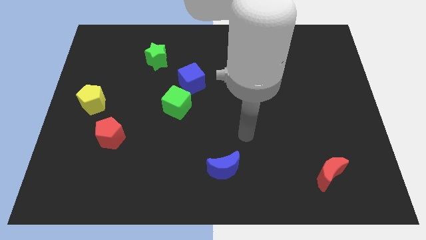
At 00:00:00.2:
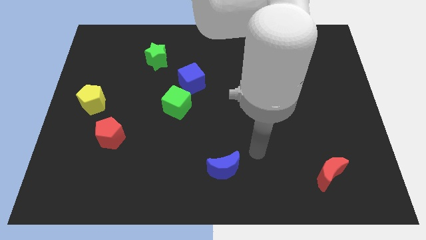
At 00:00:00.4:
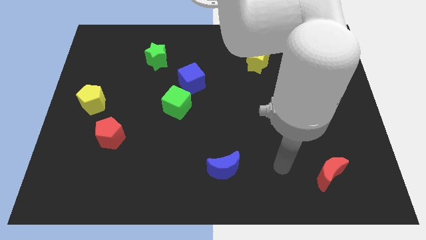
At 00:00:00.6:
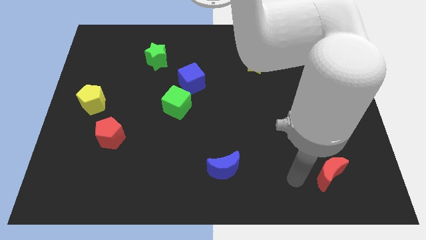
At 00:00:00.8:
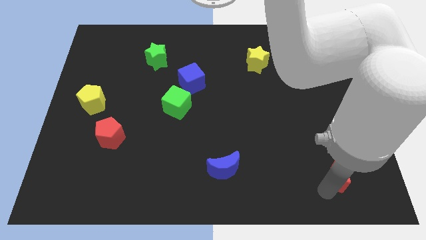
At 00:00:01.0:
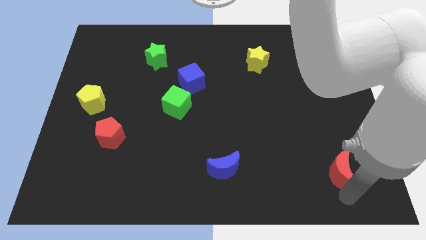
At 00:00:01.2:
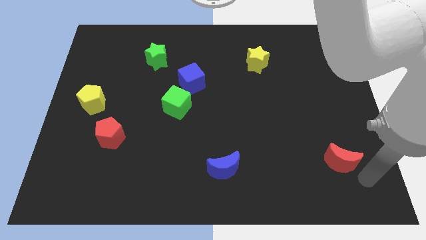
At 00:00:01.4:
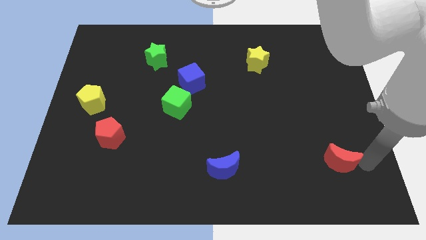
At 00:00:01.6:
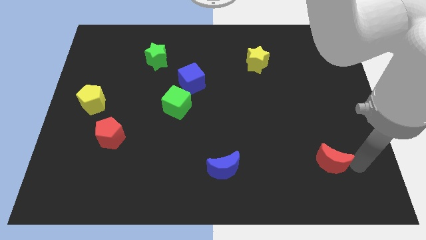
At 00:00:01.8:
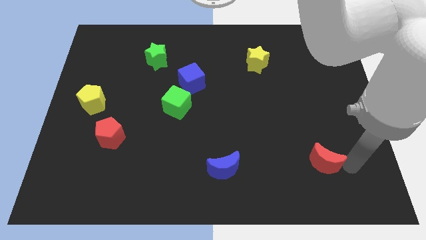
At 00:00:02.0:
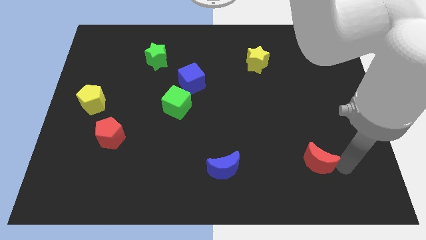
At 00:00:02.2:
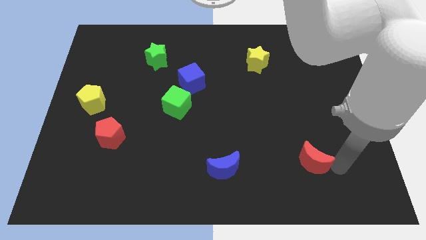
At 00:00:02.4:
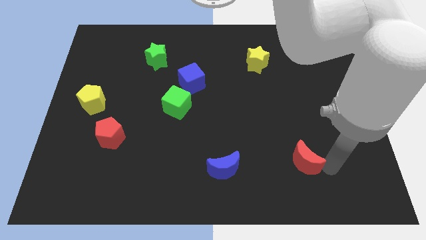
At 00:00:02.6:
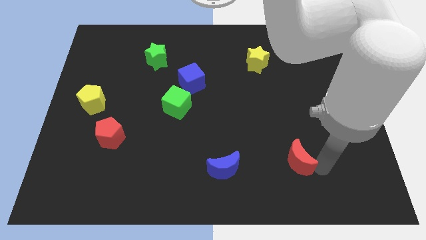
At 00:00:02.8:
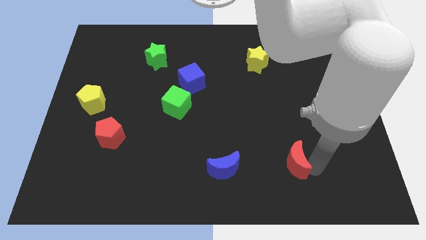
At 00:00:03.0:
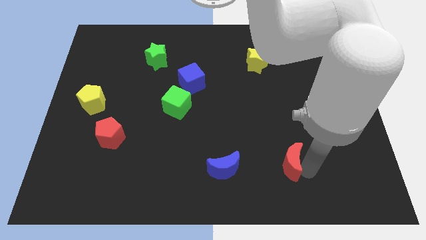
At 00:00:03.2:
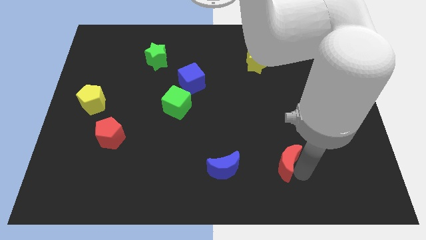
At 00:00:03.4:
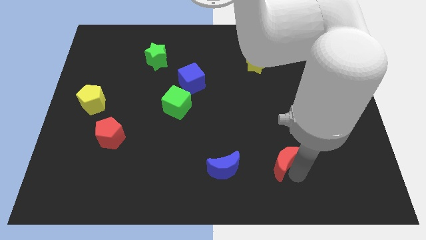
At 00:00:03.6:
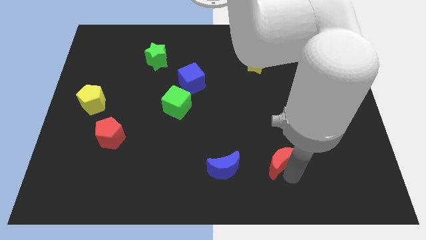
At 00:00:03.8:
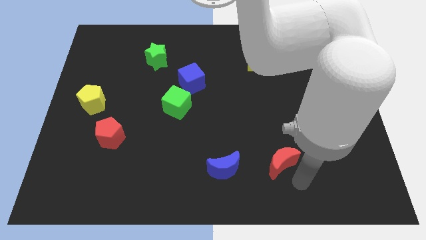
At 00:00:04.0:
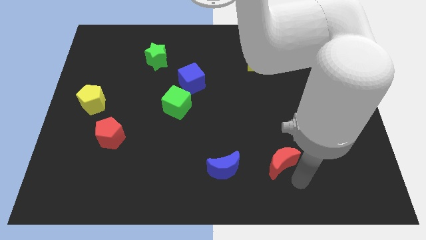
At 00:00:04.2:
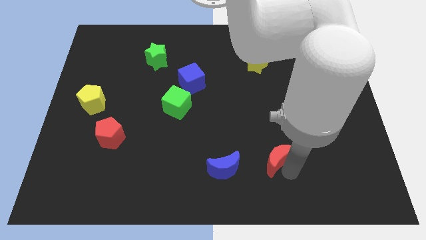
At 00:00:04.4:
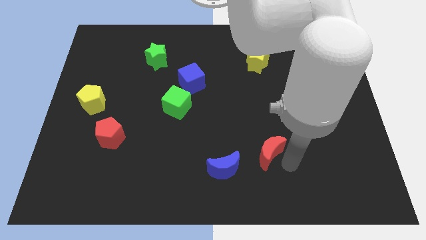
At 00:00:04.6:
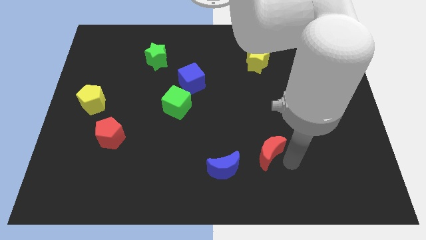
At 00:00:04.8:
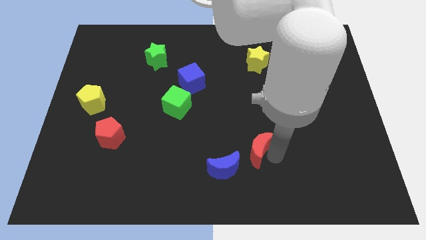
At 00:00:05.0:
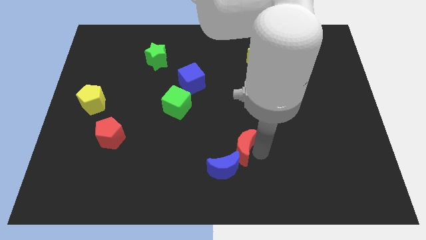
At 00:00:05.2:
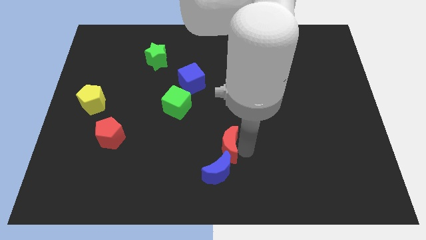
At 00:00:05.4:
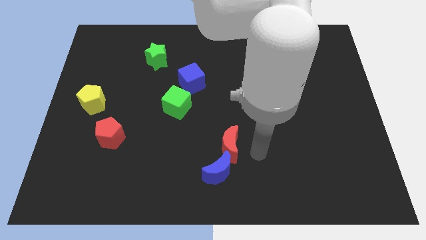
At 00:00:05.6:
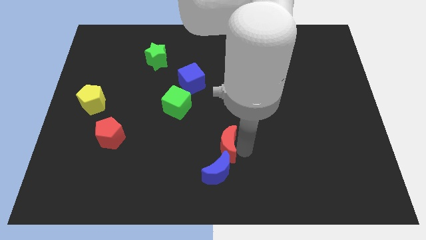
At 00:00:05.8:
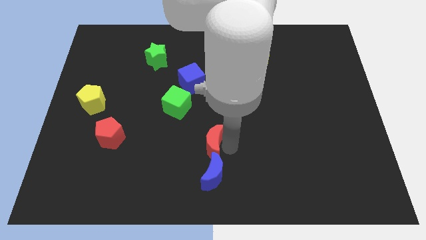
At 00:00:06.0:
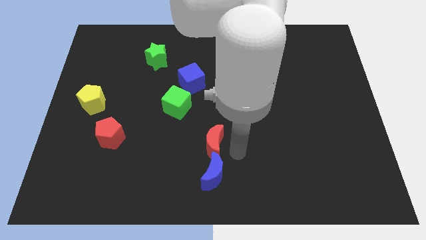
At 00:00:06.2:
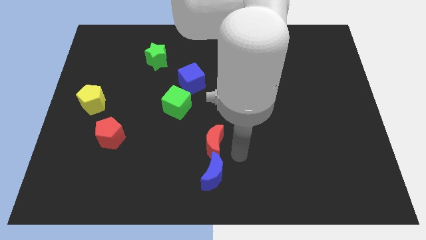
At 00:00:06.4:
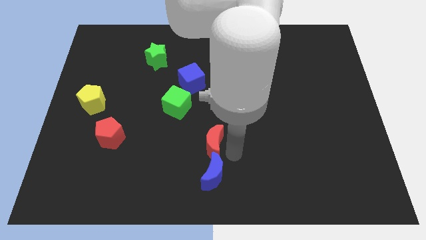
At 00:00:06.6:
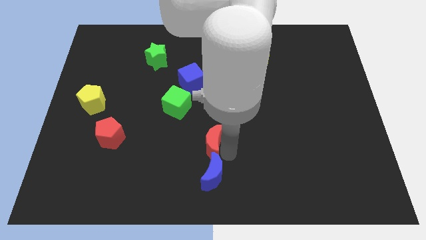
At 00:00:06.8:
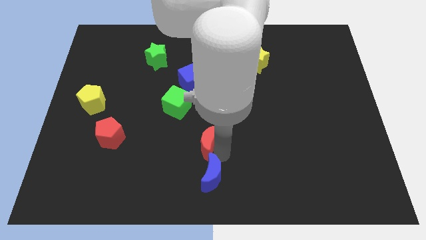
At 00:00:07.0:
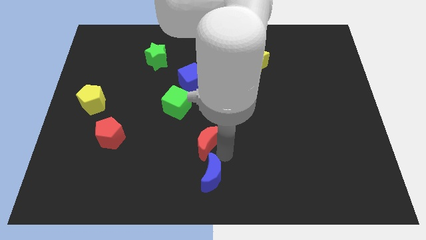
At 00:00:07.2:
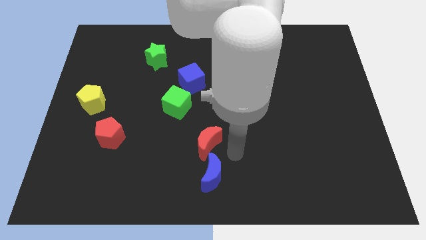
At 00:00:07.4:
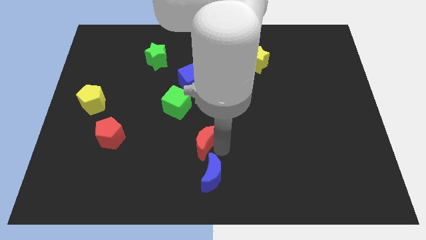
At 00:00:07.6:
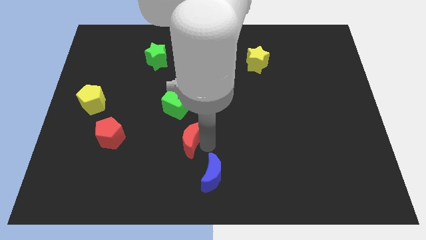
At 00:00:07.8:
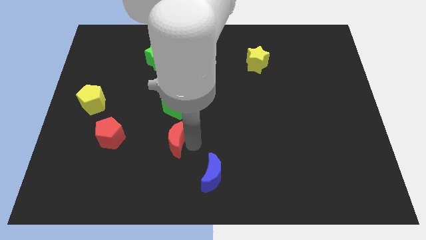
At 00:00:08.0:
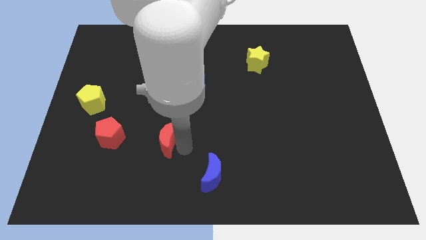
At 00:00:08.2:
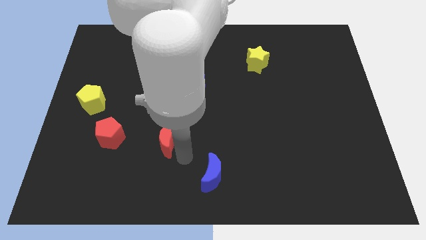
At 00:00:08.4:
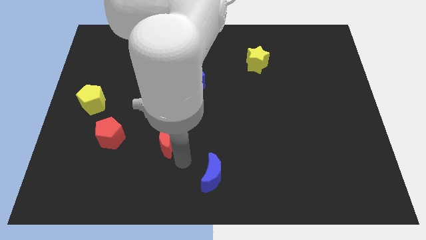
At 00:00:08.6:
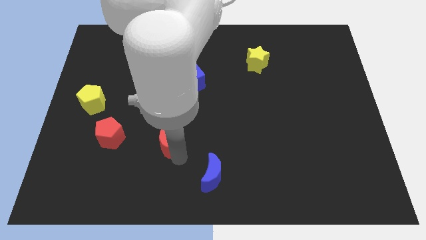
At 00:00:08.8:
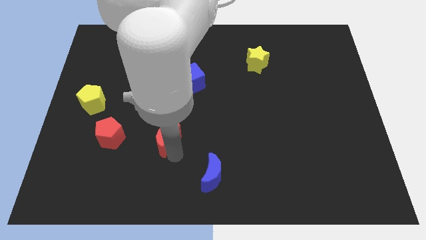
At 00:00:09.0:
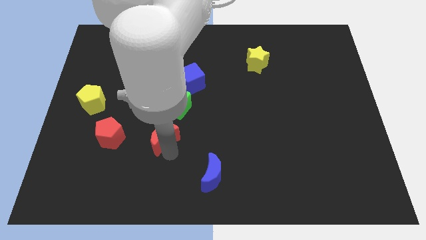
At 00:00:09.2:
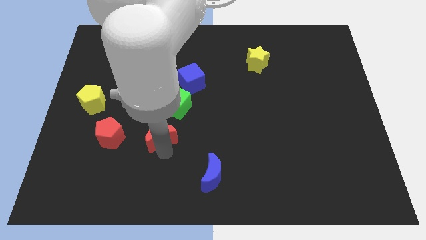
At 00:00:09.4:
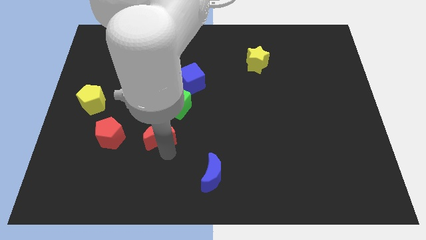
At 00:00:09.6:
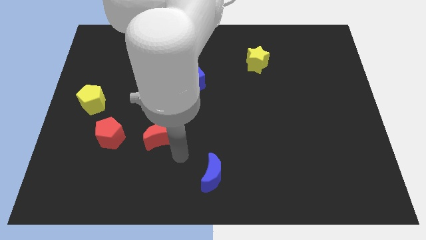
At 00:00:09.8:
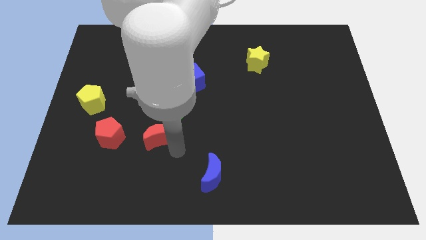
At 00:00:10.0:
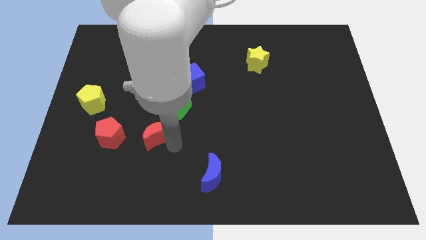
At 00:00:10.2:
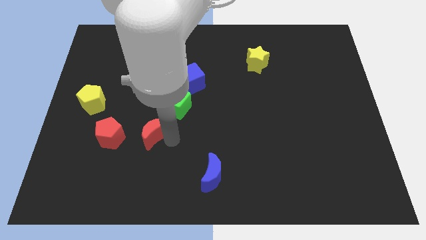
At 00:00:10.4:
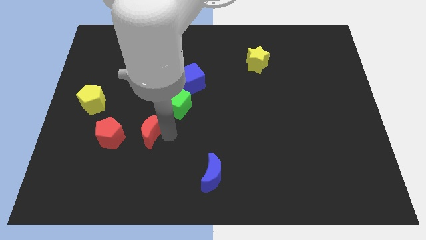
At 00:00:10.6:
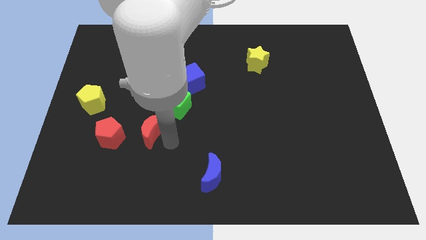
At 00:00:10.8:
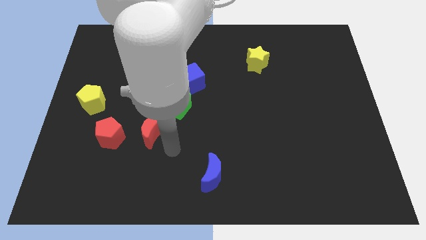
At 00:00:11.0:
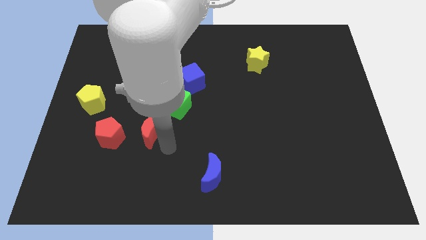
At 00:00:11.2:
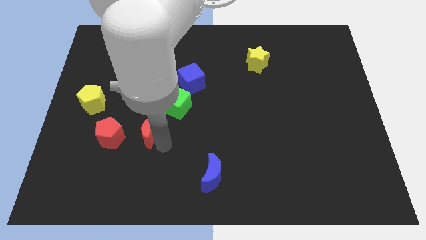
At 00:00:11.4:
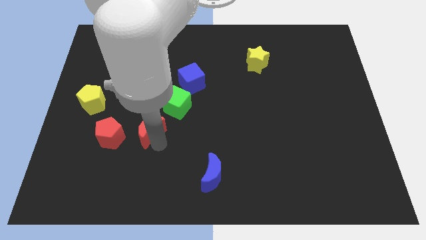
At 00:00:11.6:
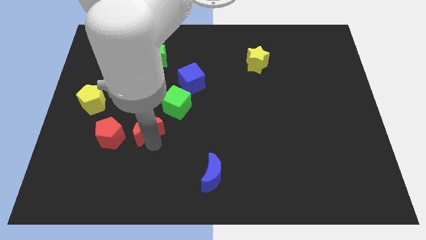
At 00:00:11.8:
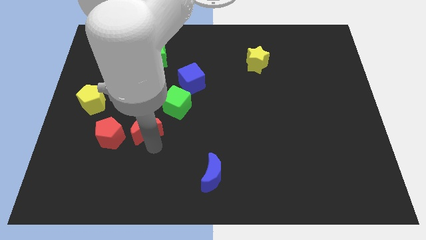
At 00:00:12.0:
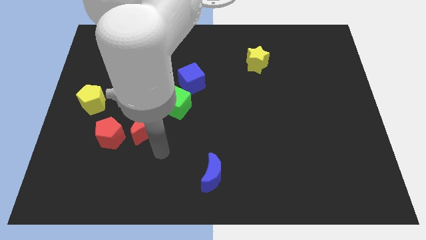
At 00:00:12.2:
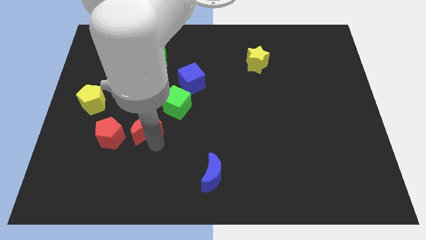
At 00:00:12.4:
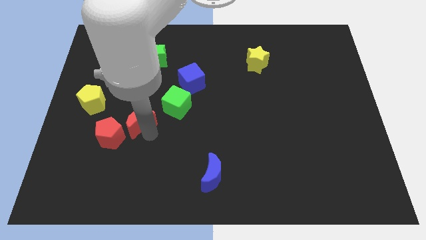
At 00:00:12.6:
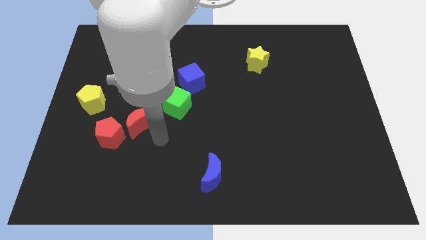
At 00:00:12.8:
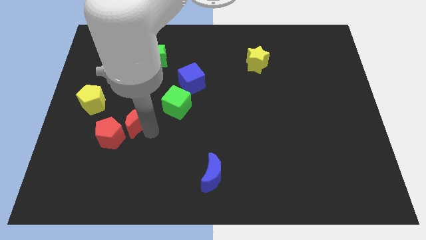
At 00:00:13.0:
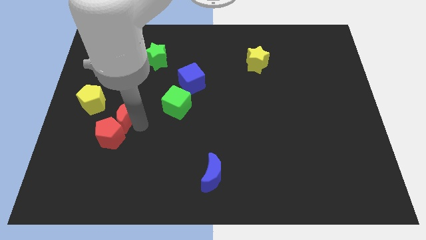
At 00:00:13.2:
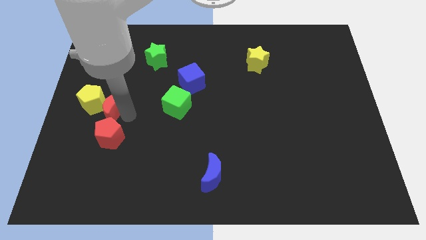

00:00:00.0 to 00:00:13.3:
move the red moon next to the yellow pentagon
